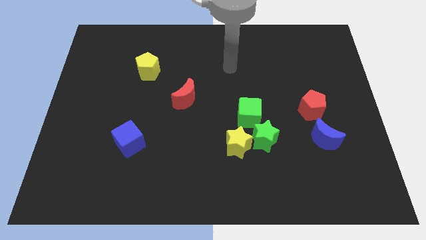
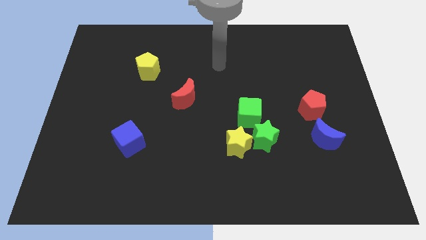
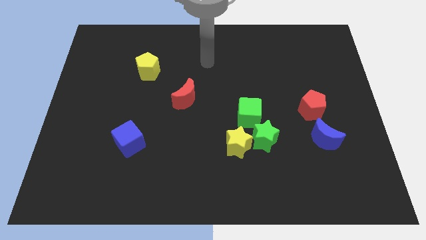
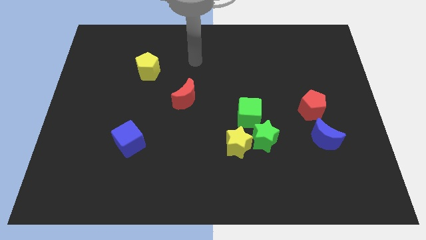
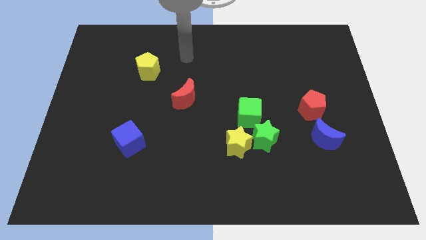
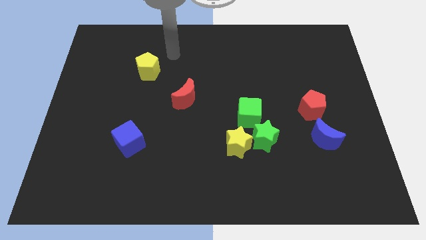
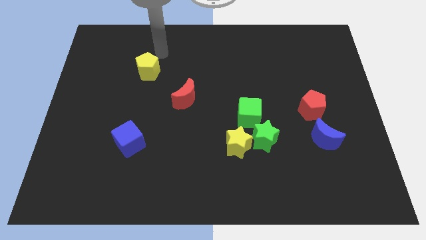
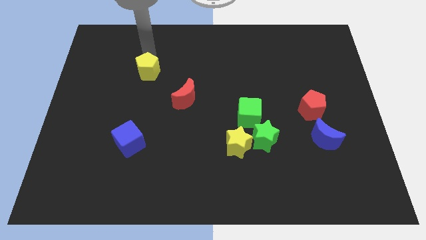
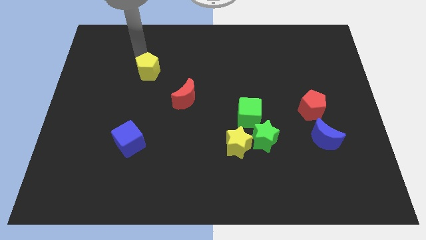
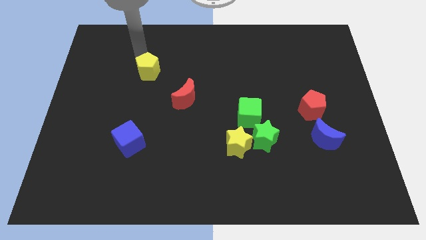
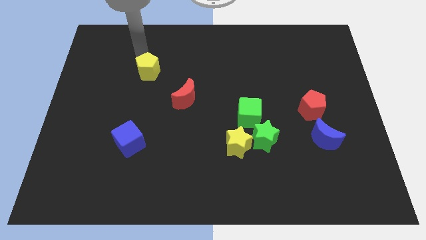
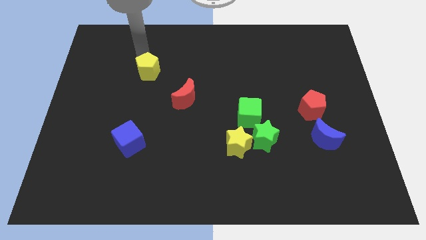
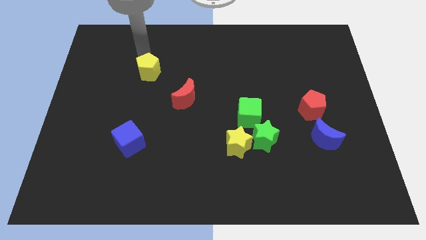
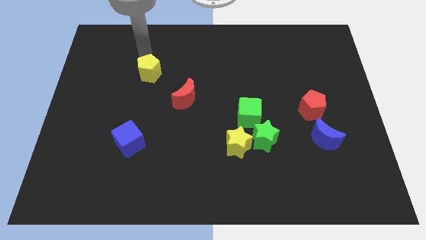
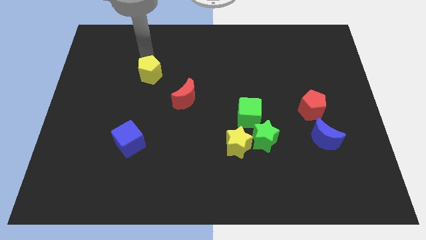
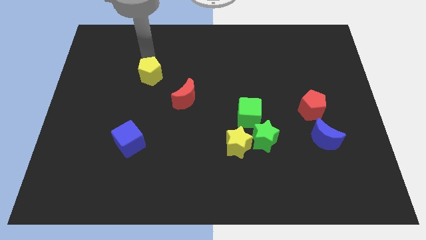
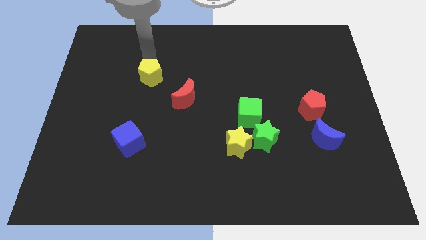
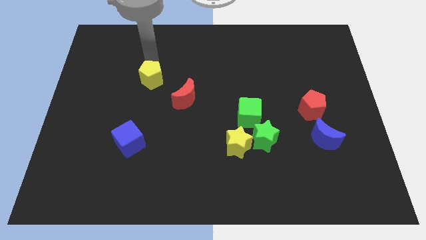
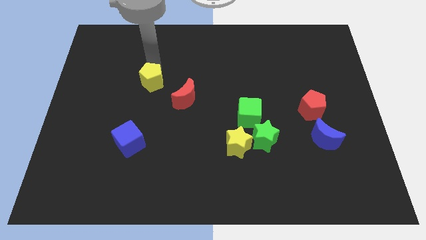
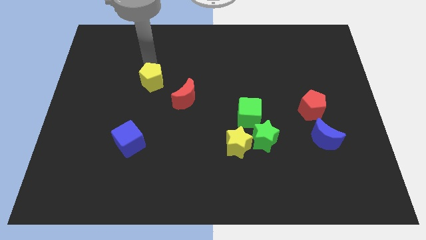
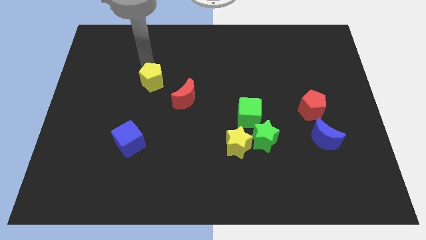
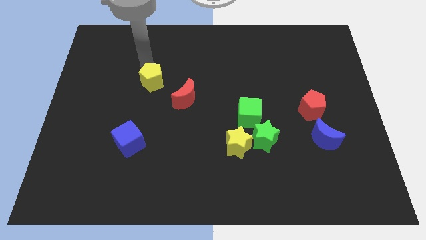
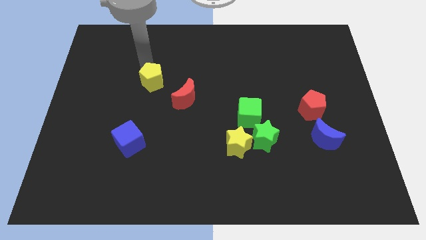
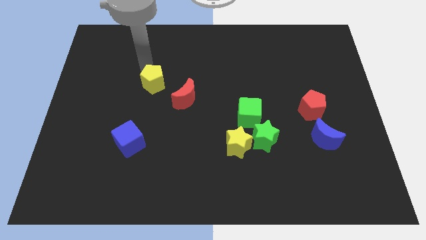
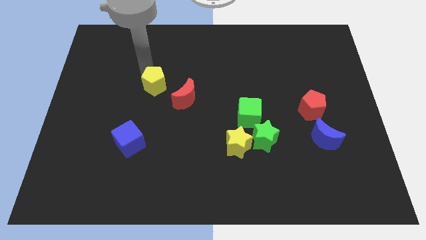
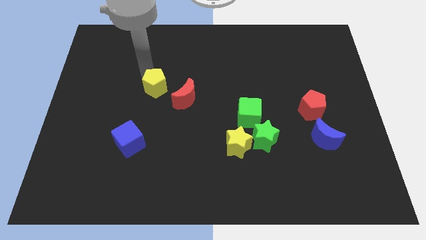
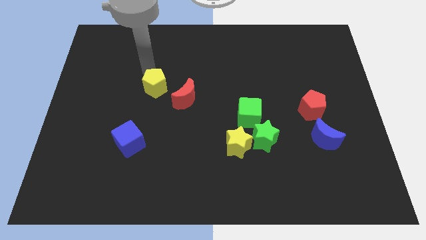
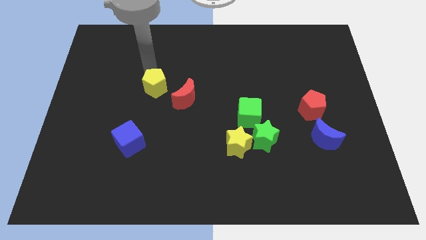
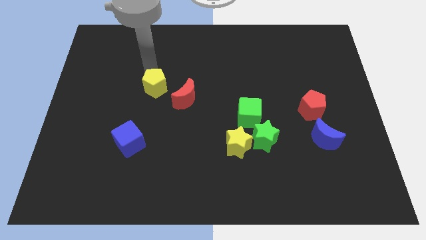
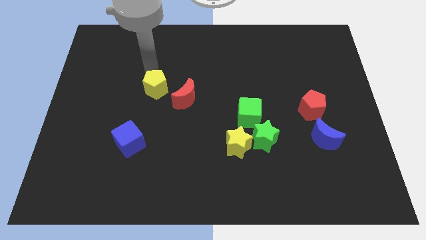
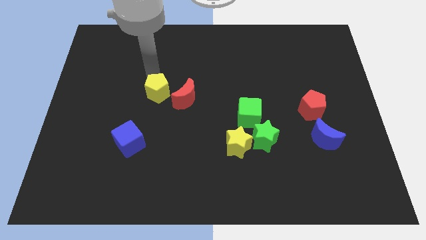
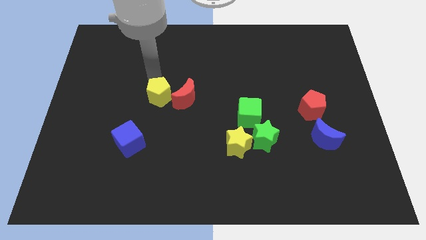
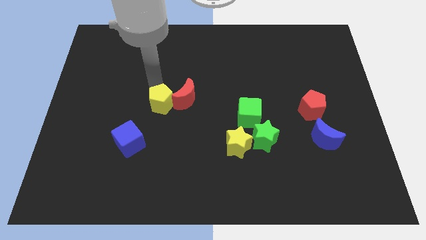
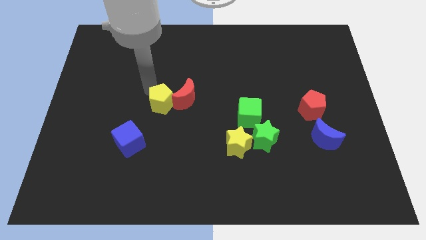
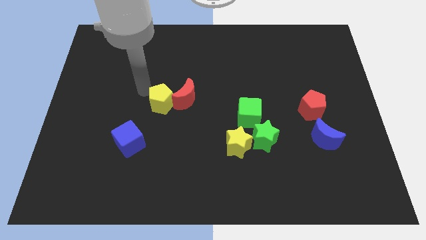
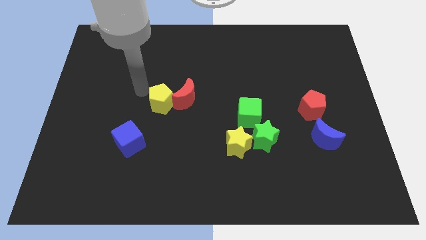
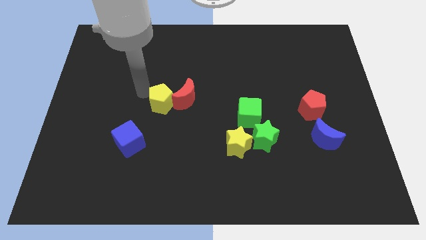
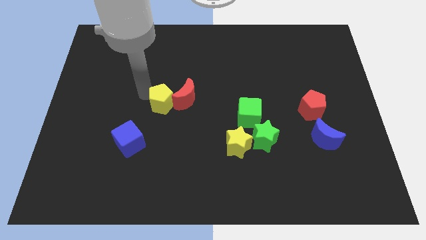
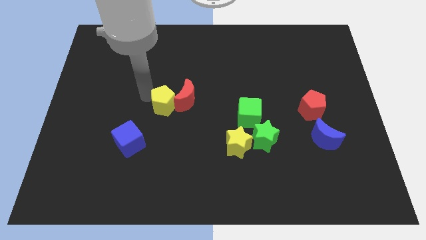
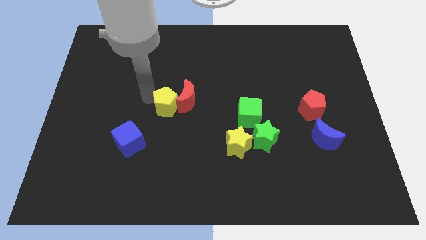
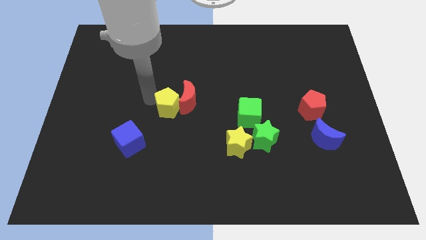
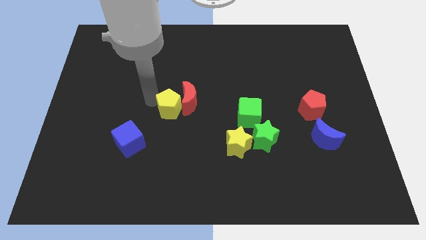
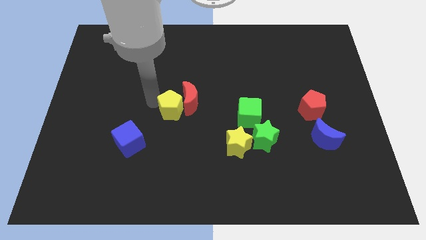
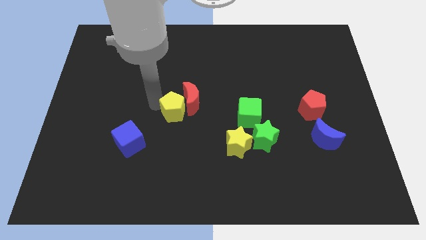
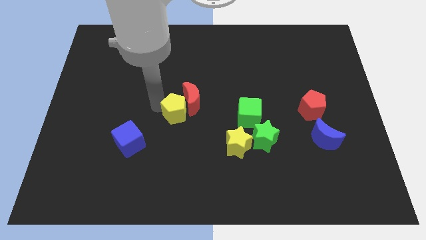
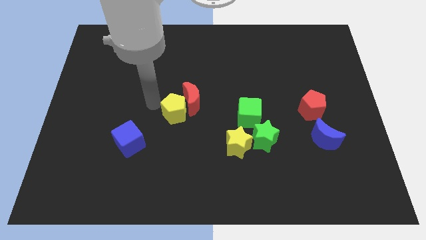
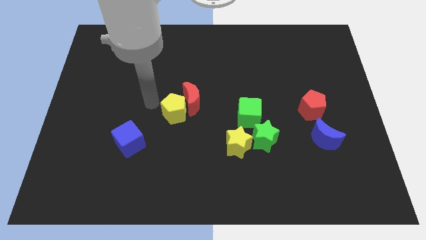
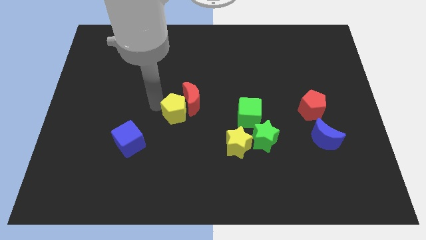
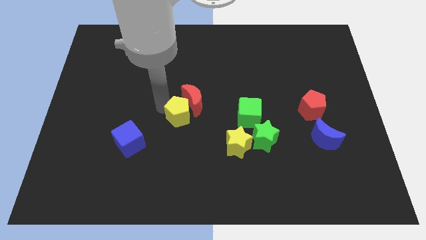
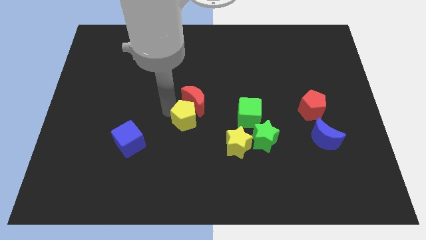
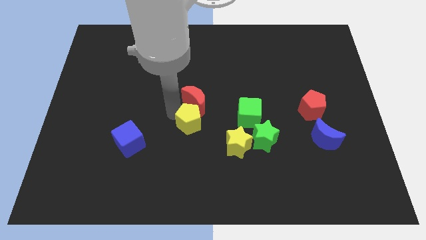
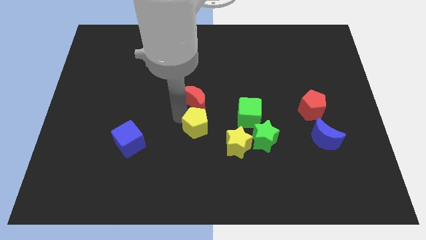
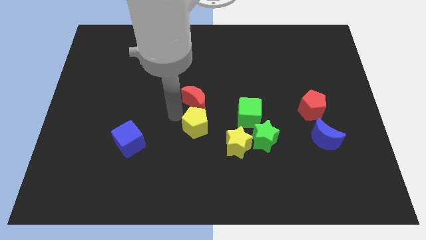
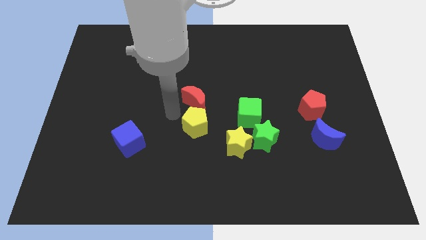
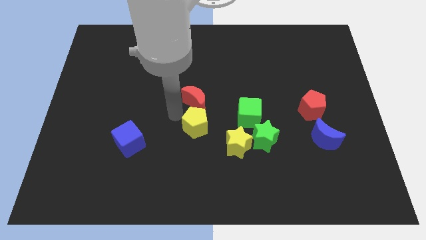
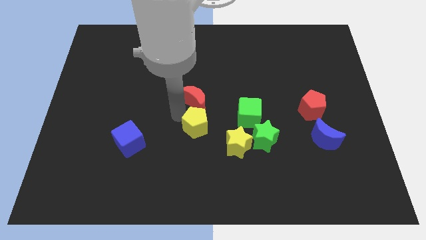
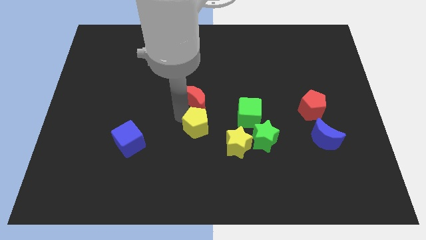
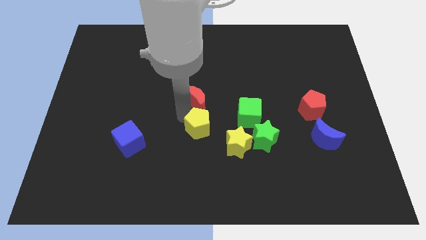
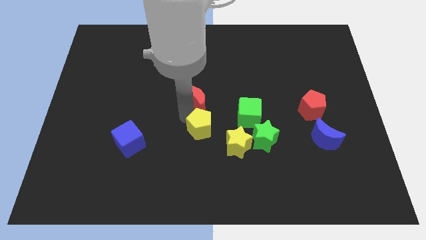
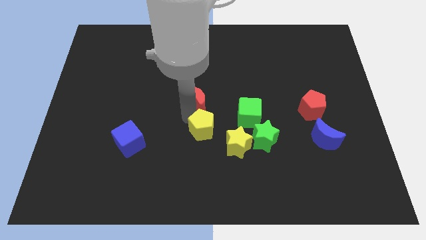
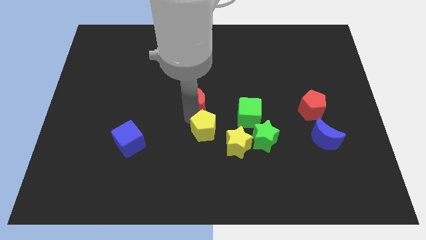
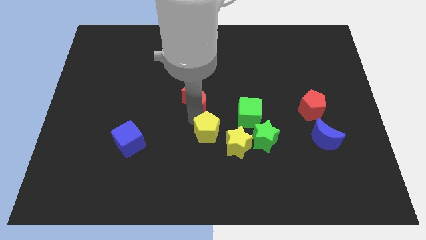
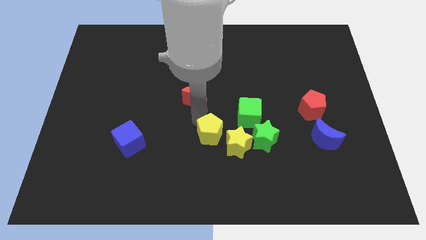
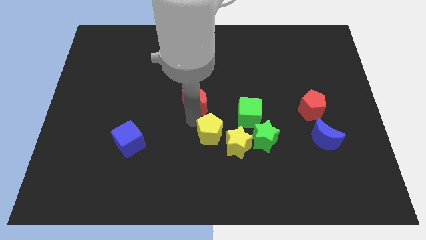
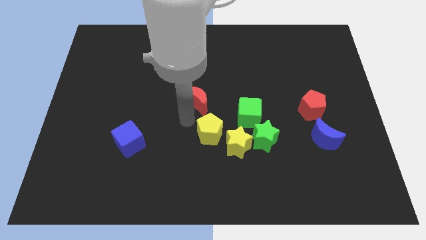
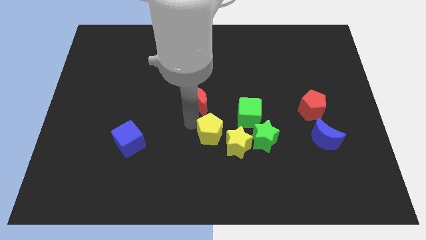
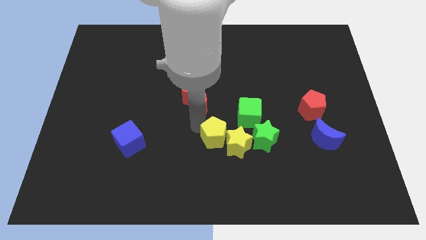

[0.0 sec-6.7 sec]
push the yellow pentagon towards the yellow star
